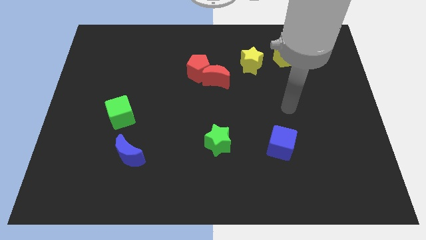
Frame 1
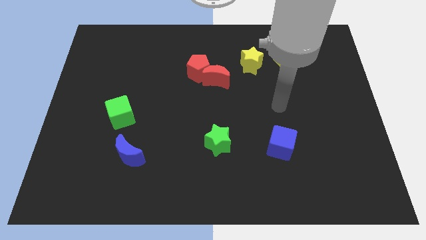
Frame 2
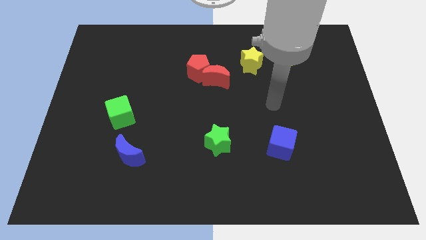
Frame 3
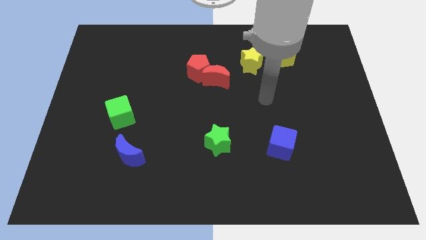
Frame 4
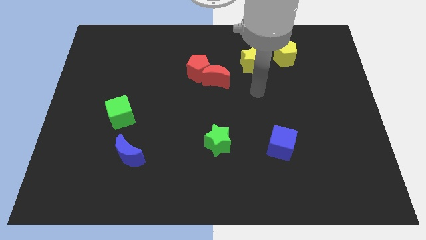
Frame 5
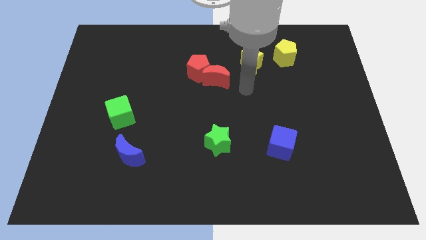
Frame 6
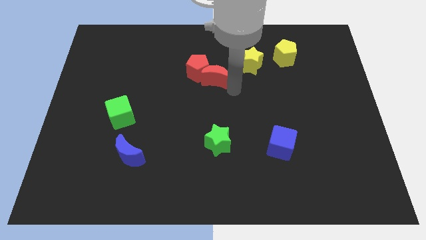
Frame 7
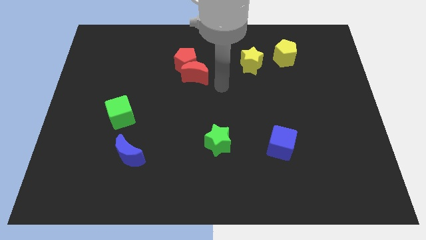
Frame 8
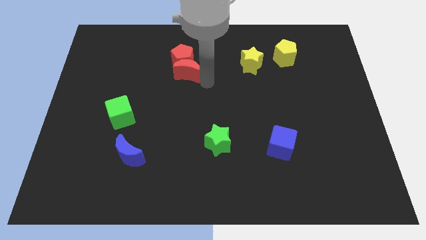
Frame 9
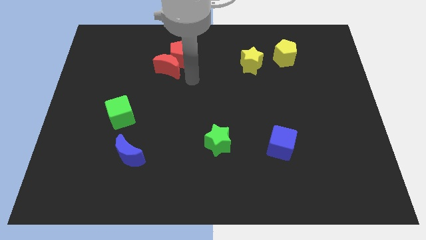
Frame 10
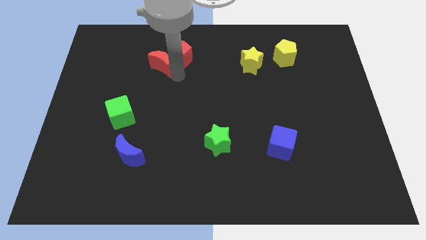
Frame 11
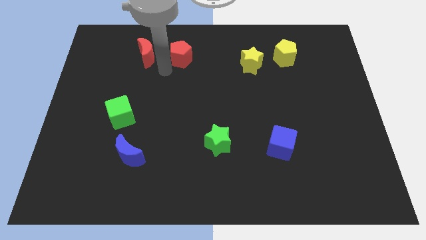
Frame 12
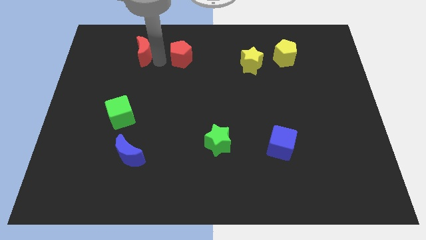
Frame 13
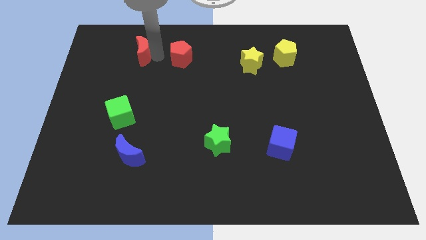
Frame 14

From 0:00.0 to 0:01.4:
pull the red pentagon apart from the red moon

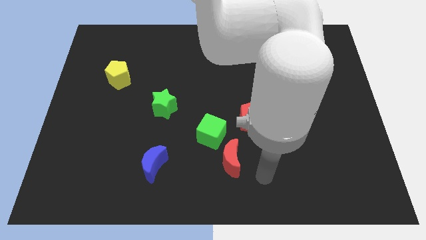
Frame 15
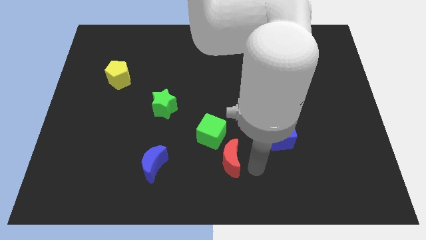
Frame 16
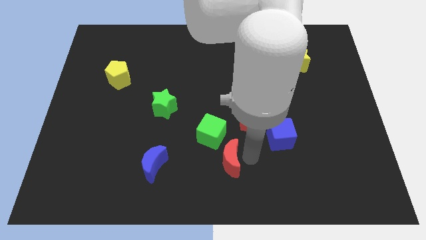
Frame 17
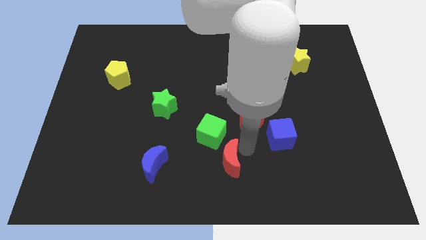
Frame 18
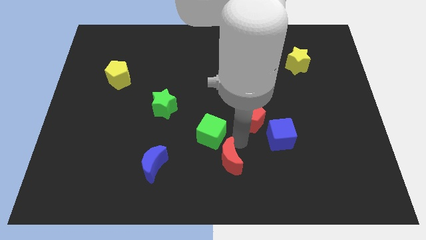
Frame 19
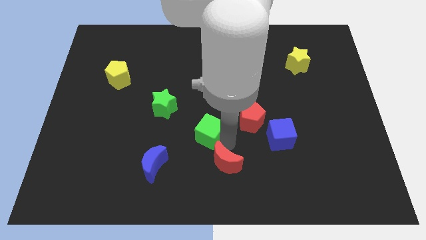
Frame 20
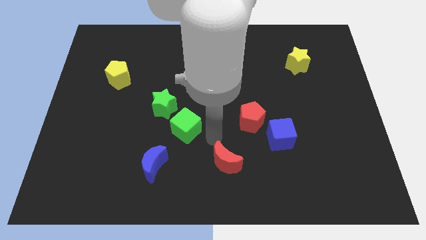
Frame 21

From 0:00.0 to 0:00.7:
pull the red moon apart from the green cube

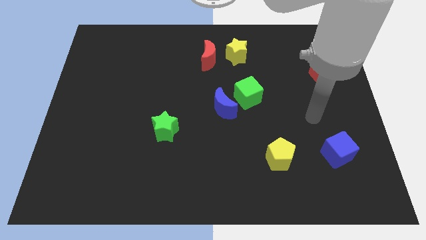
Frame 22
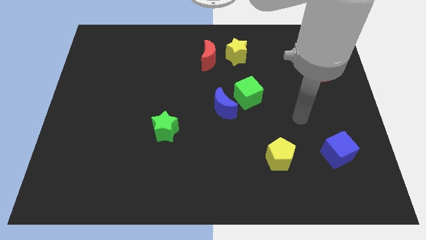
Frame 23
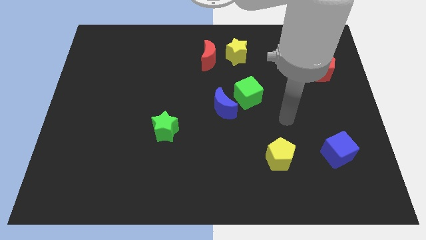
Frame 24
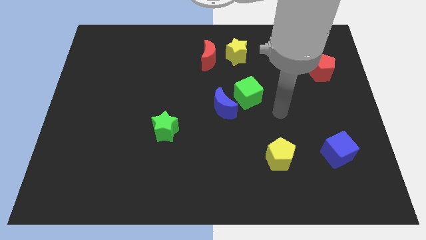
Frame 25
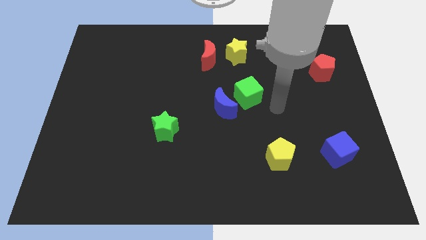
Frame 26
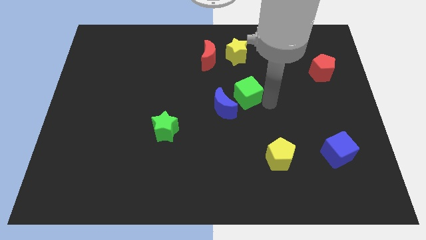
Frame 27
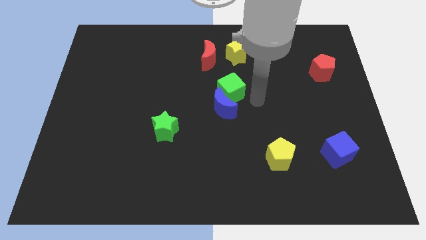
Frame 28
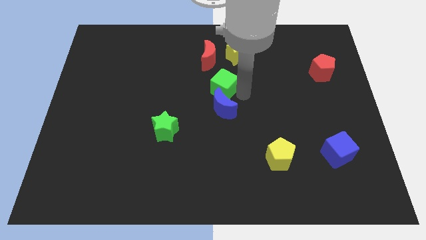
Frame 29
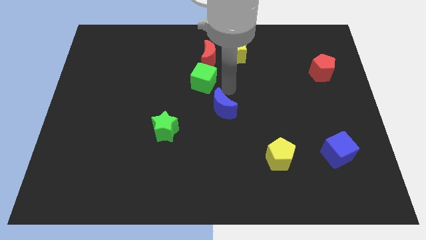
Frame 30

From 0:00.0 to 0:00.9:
separate the blue moon from the green cube

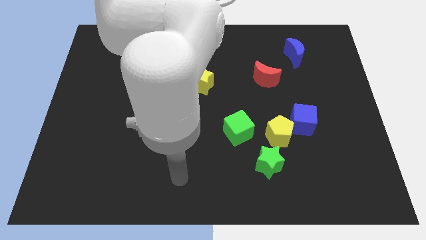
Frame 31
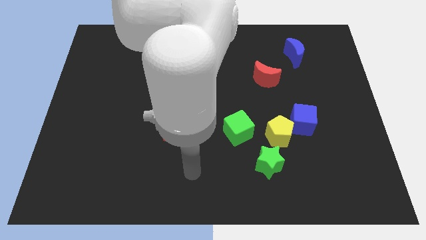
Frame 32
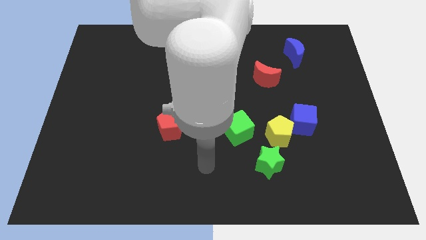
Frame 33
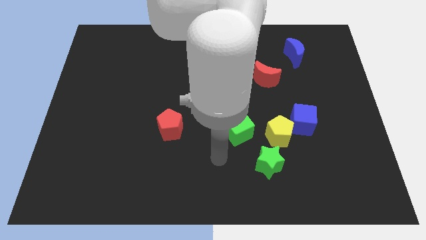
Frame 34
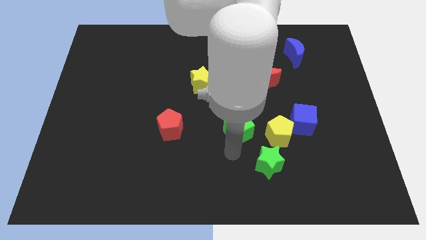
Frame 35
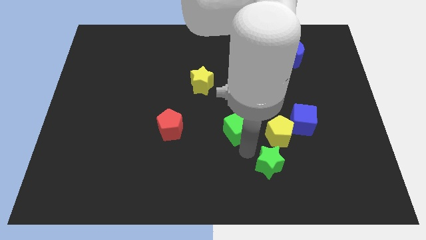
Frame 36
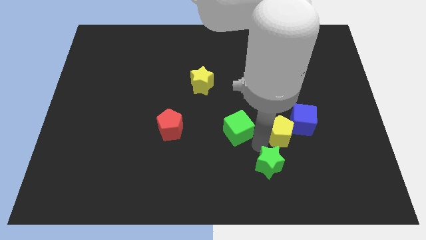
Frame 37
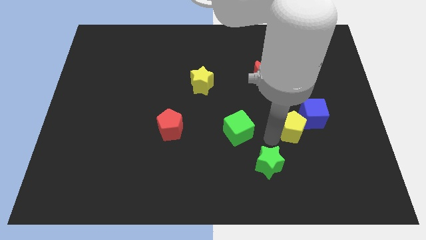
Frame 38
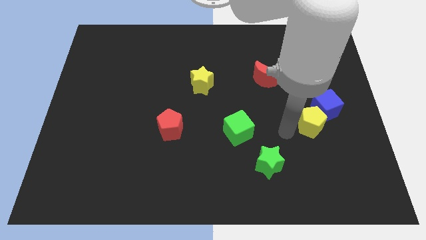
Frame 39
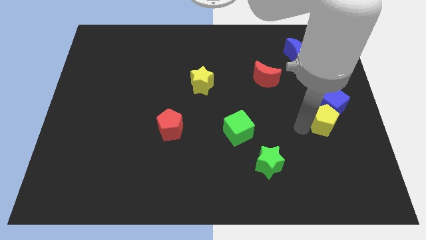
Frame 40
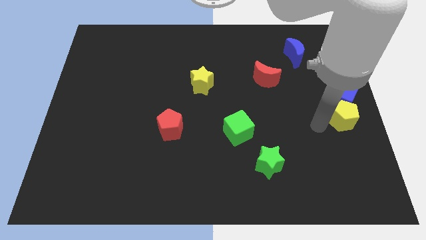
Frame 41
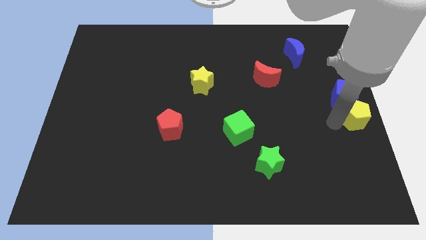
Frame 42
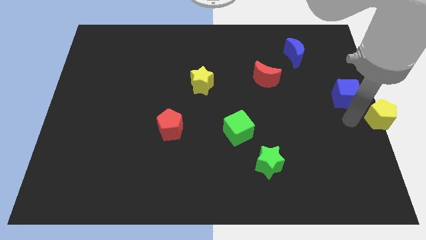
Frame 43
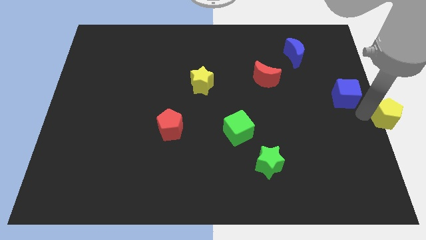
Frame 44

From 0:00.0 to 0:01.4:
pull the blue cube apart from the yellow pentagon

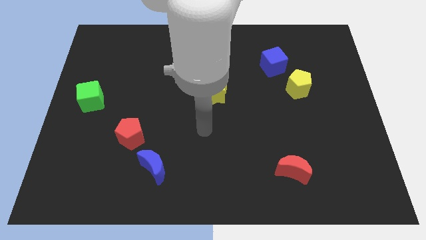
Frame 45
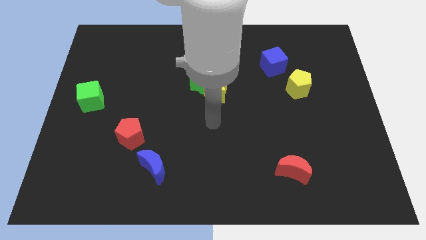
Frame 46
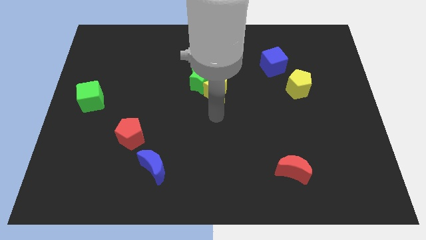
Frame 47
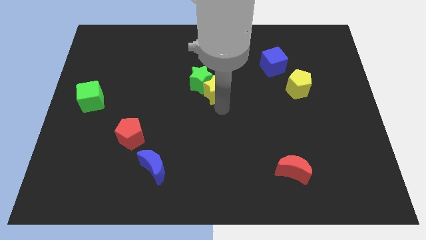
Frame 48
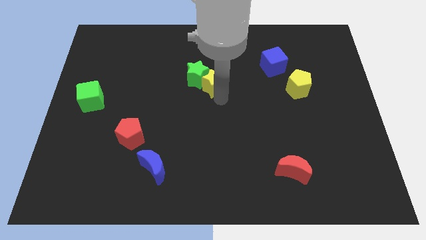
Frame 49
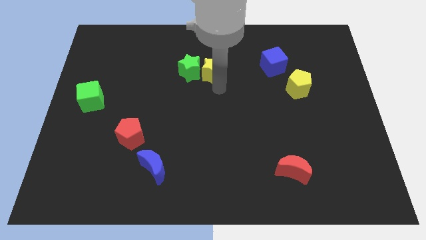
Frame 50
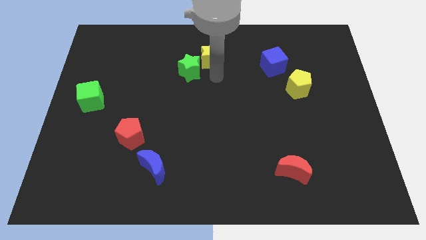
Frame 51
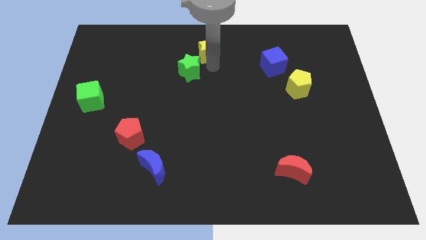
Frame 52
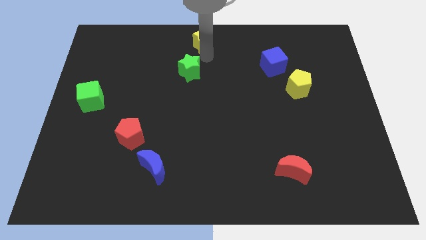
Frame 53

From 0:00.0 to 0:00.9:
move the green star away from the yellow star

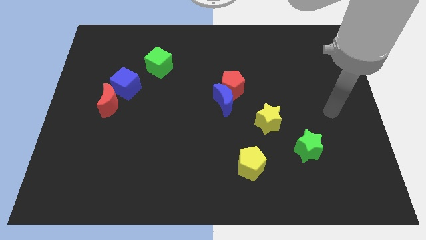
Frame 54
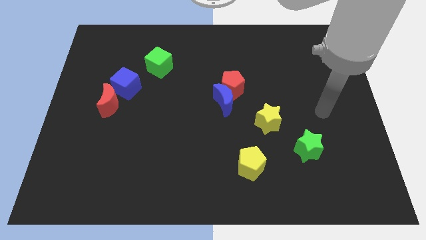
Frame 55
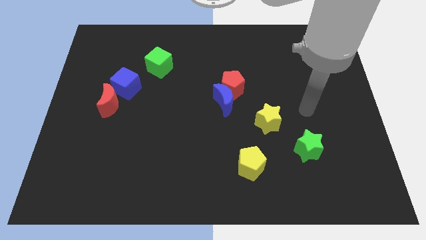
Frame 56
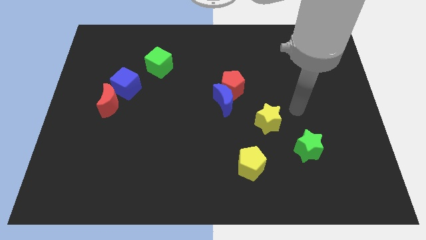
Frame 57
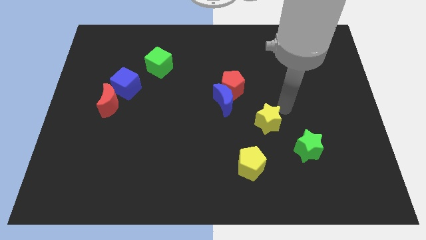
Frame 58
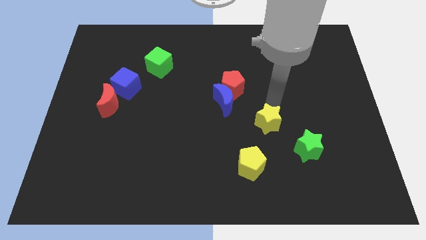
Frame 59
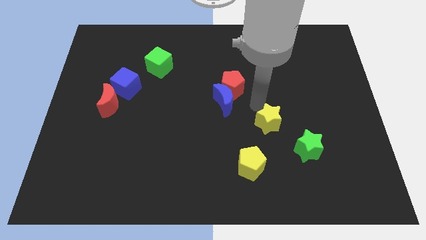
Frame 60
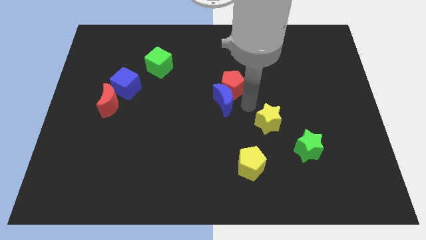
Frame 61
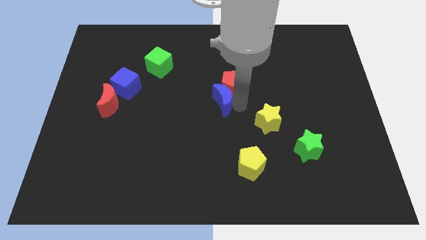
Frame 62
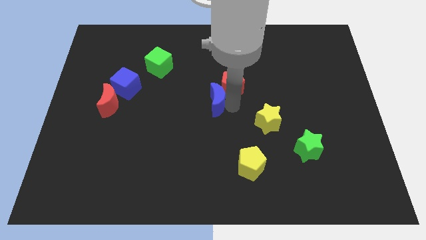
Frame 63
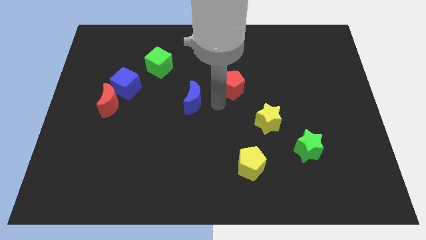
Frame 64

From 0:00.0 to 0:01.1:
separate the red pentagon from the blue moon

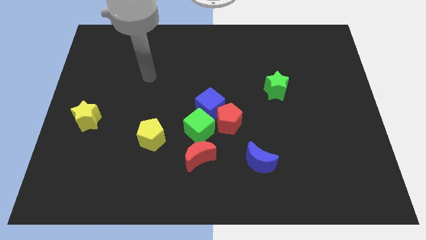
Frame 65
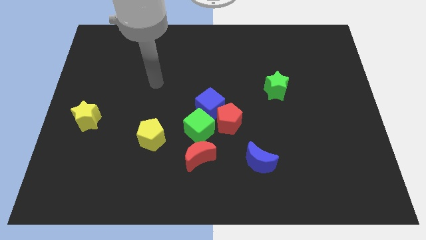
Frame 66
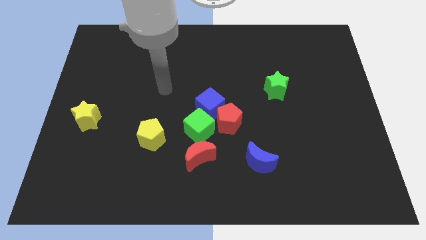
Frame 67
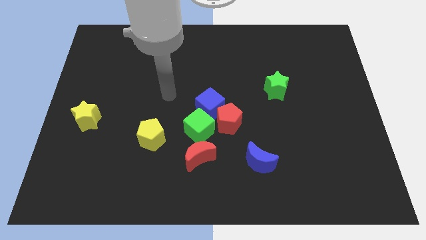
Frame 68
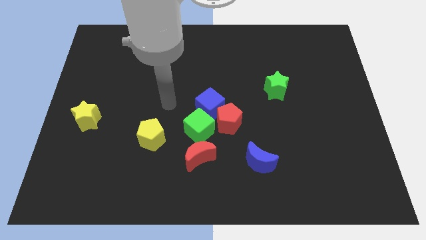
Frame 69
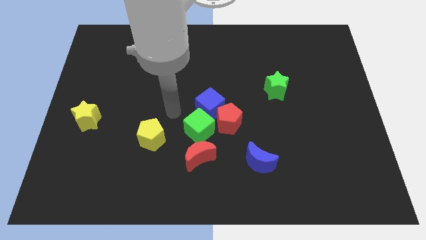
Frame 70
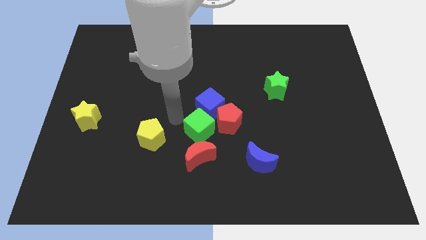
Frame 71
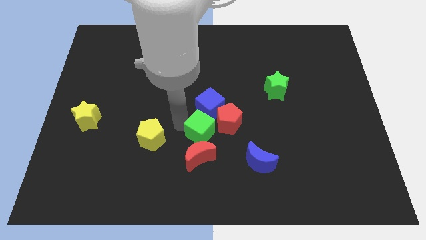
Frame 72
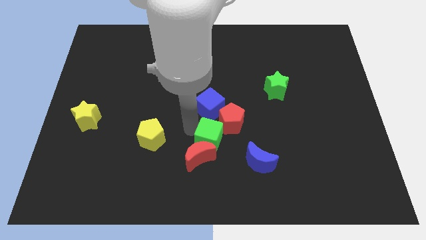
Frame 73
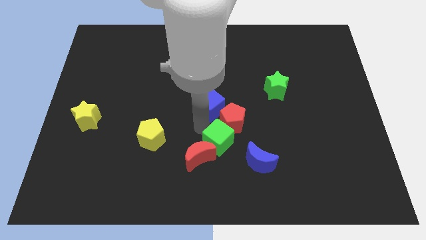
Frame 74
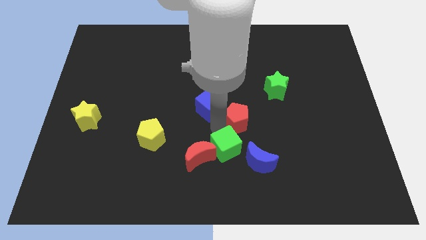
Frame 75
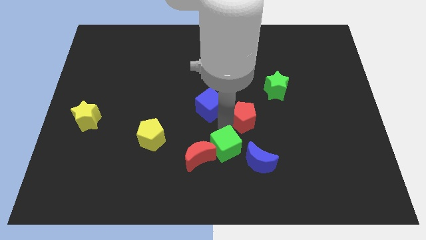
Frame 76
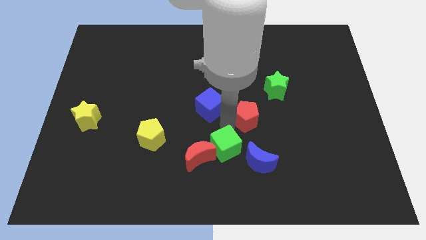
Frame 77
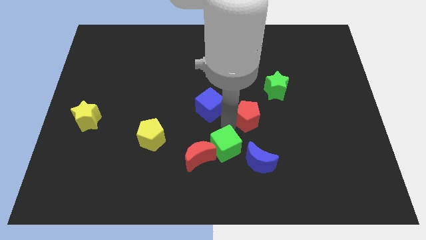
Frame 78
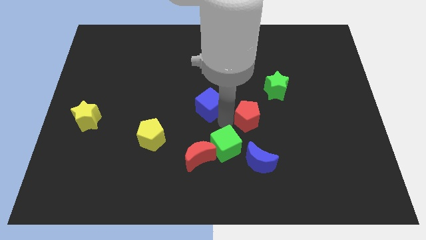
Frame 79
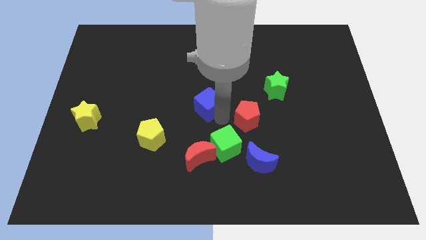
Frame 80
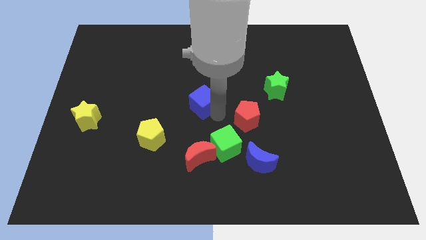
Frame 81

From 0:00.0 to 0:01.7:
move the blue cube away from the red pentagon and green cube

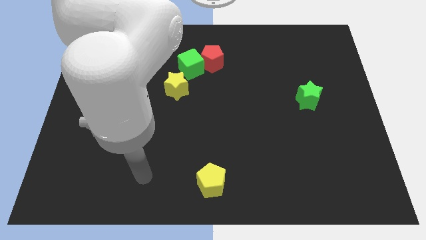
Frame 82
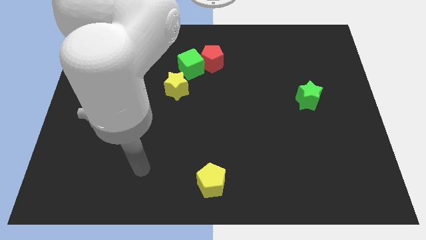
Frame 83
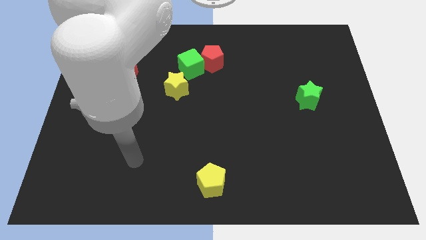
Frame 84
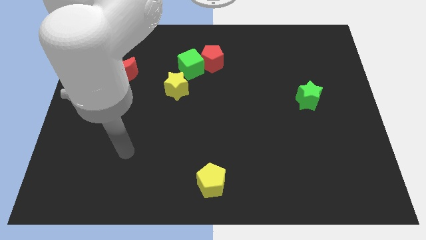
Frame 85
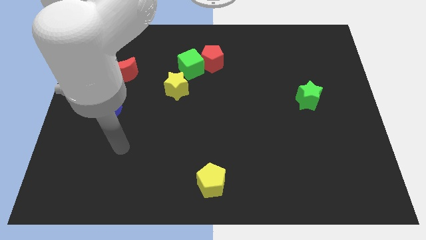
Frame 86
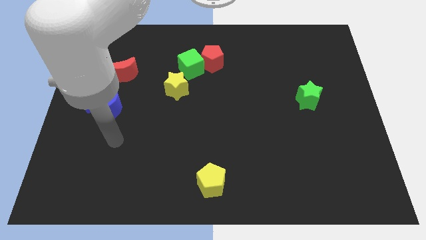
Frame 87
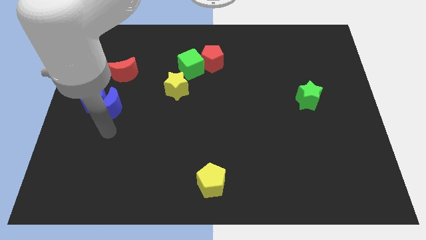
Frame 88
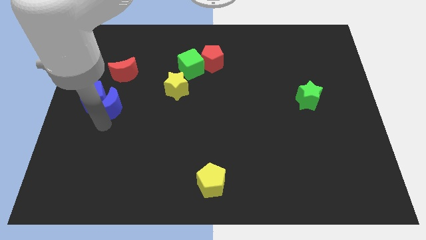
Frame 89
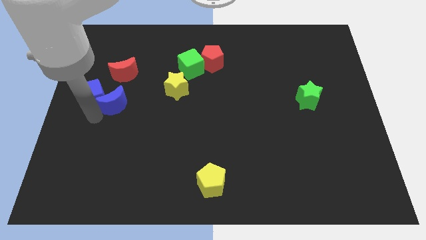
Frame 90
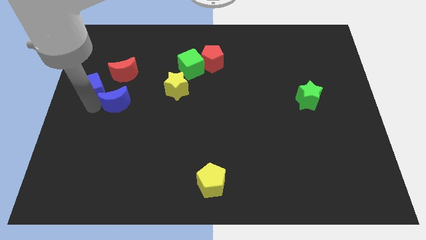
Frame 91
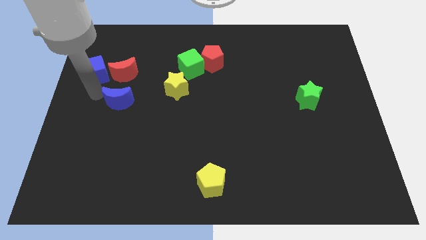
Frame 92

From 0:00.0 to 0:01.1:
move the blue moon away from the blue cube

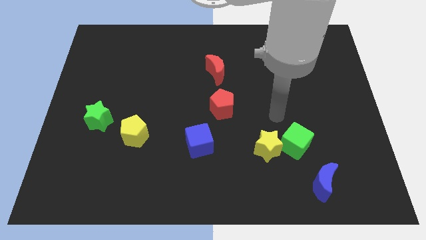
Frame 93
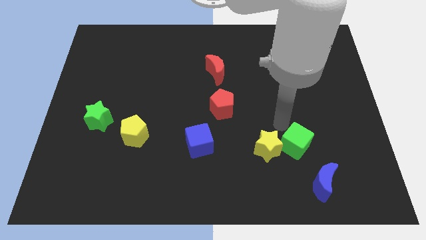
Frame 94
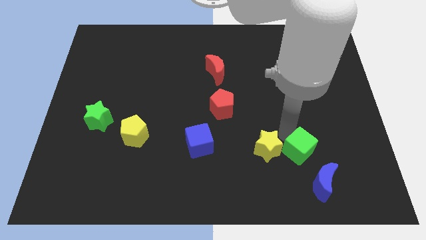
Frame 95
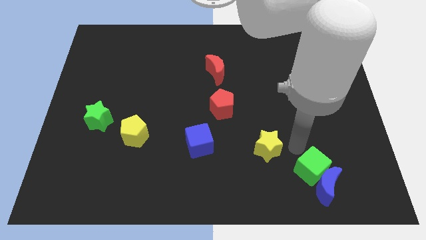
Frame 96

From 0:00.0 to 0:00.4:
move the yellow star away from the green cube
